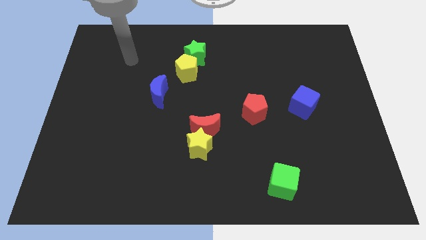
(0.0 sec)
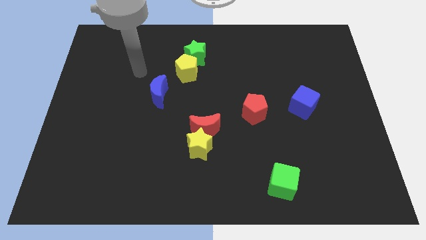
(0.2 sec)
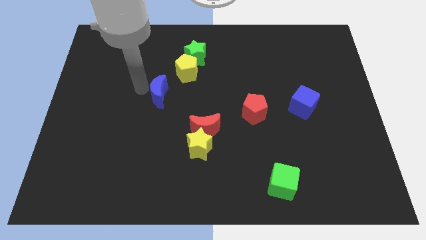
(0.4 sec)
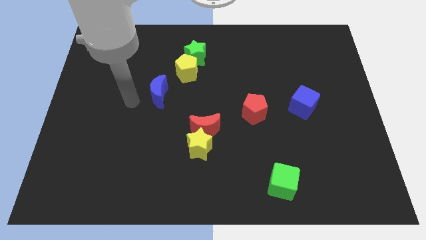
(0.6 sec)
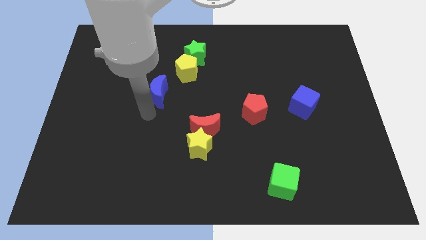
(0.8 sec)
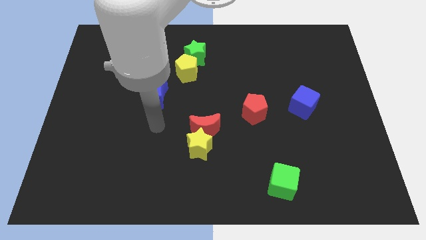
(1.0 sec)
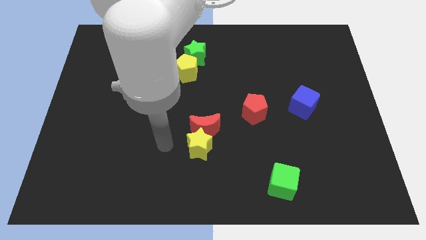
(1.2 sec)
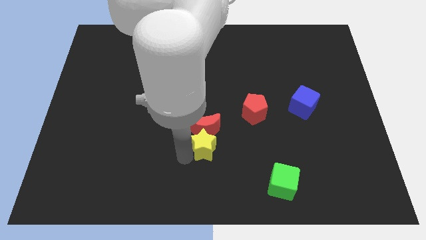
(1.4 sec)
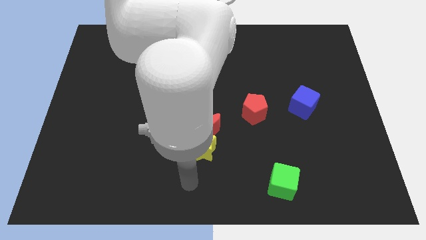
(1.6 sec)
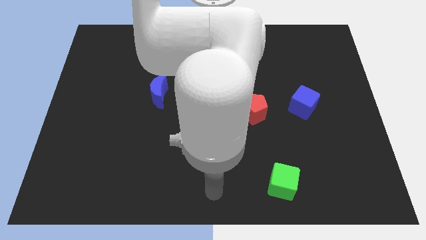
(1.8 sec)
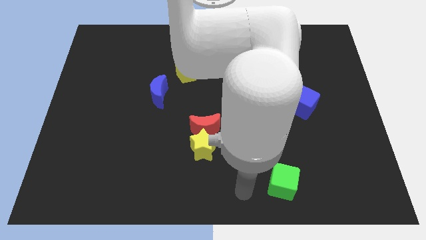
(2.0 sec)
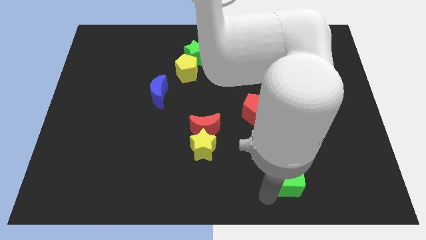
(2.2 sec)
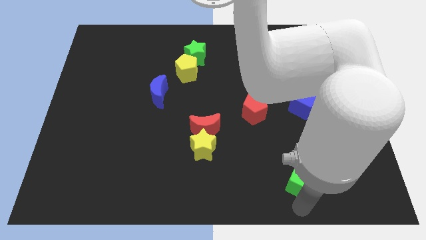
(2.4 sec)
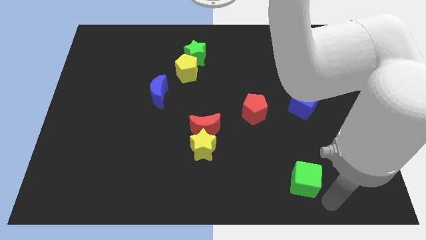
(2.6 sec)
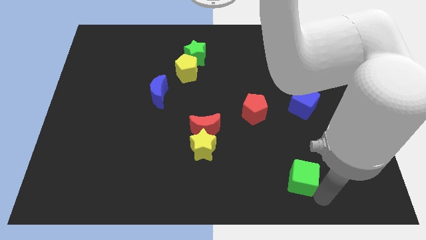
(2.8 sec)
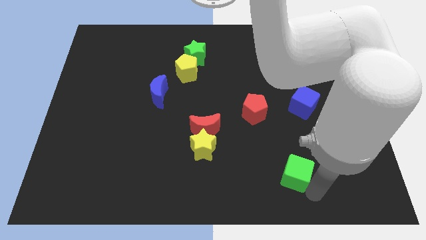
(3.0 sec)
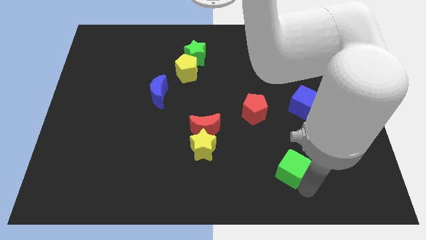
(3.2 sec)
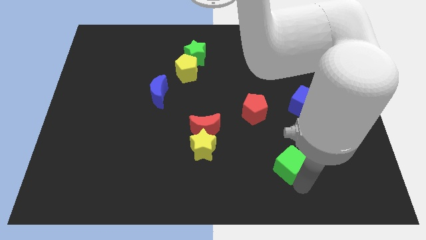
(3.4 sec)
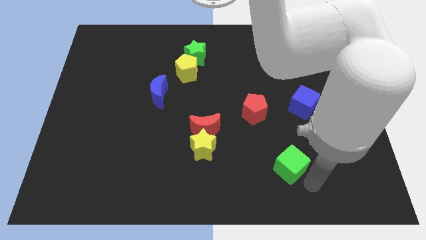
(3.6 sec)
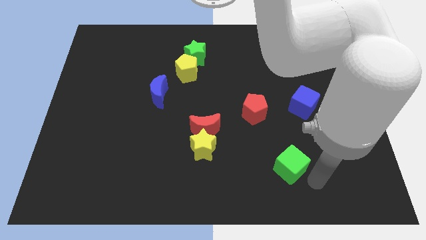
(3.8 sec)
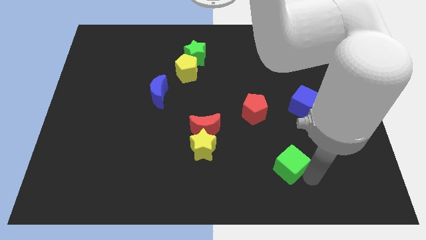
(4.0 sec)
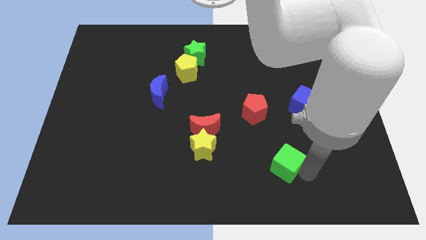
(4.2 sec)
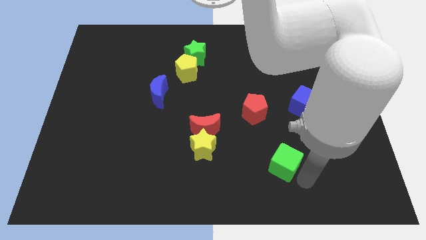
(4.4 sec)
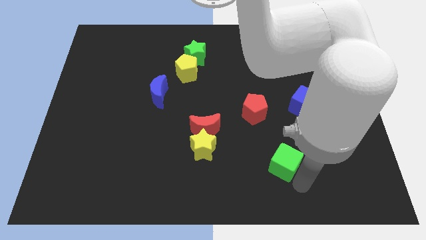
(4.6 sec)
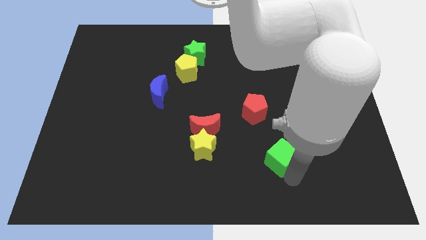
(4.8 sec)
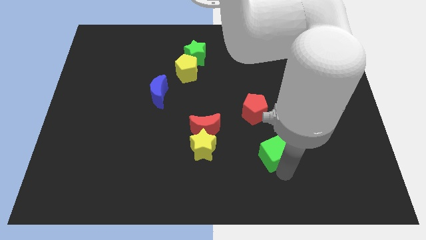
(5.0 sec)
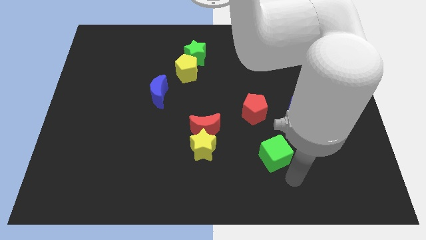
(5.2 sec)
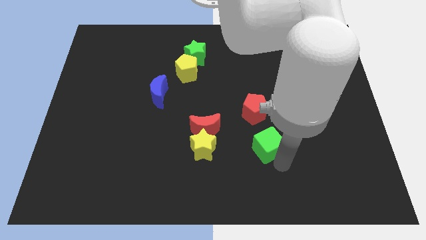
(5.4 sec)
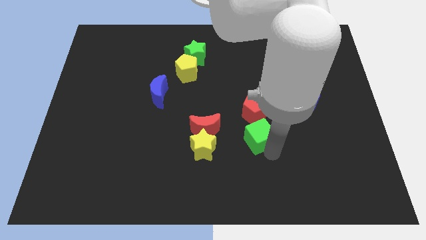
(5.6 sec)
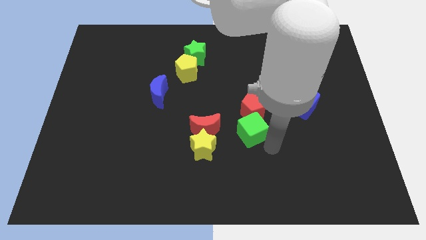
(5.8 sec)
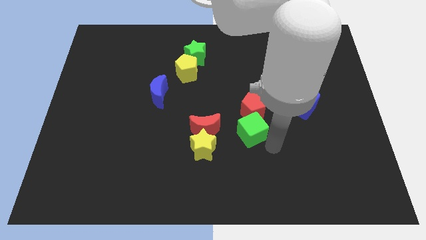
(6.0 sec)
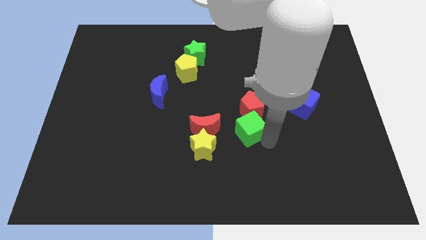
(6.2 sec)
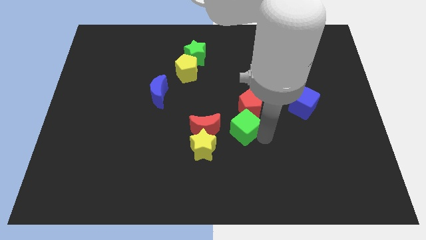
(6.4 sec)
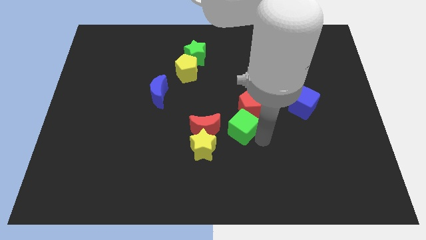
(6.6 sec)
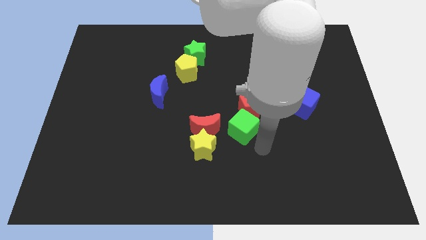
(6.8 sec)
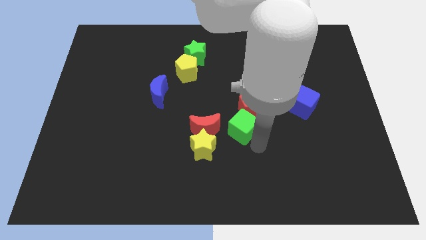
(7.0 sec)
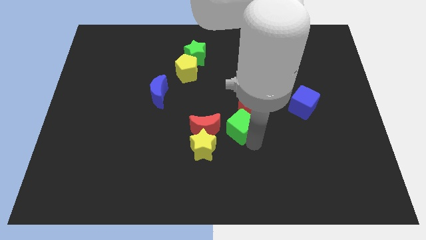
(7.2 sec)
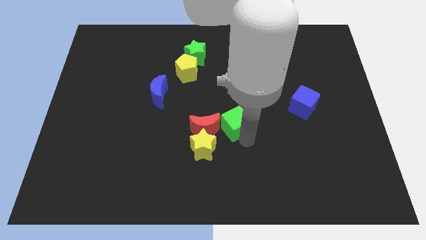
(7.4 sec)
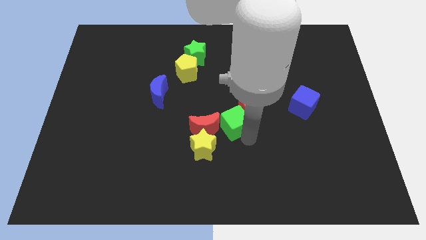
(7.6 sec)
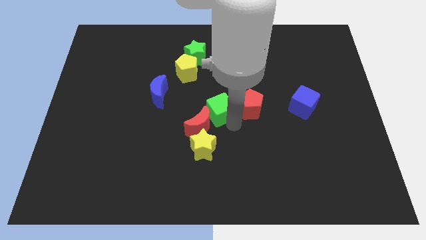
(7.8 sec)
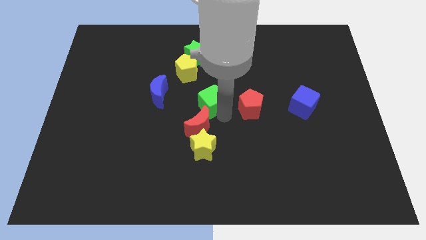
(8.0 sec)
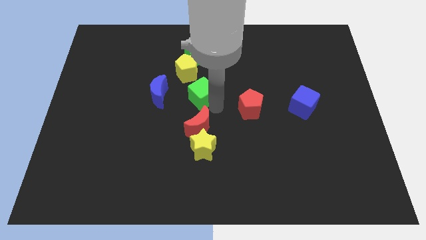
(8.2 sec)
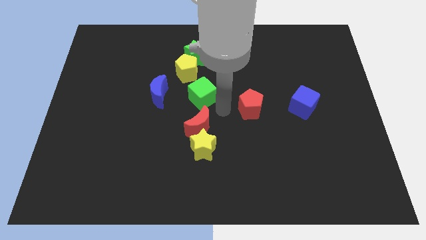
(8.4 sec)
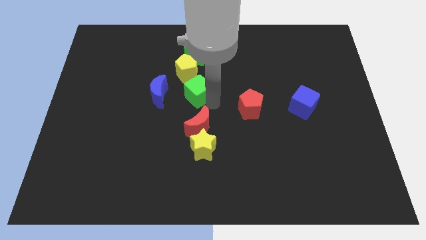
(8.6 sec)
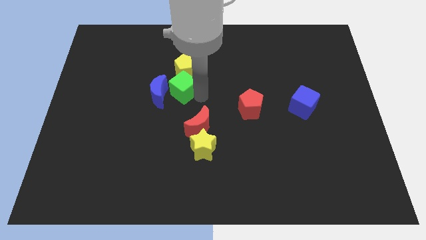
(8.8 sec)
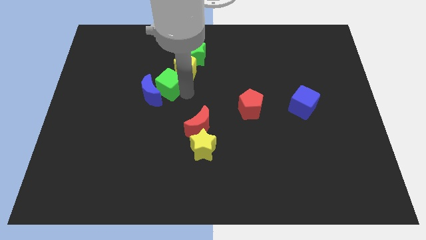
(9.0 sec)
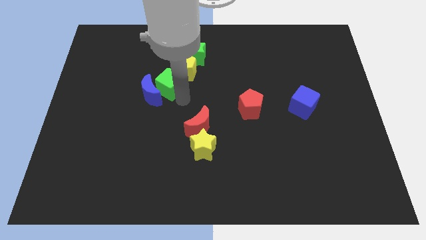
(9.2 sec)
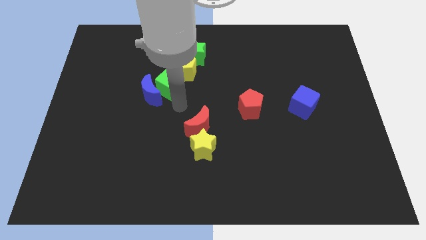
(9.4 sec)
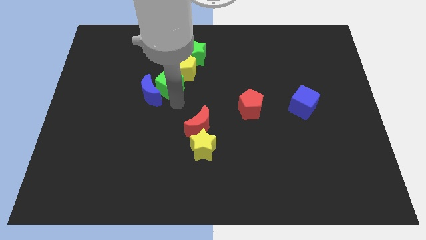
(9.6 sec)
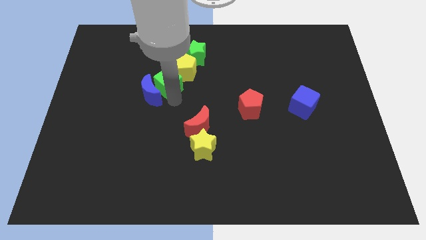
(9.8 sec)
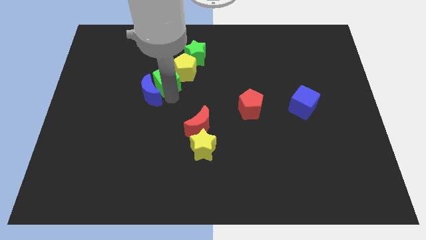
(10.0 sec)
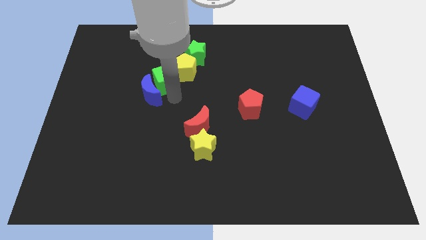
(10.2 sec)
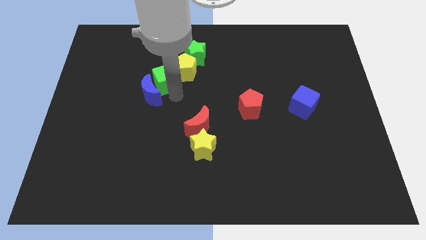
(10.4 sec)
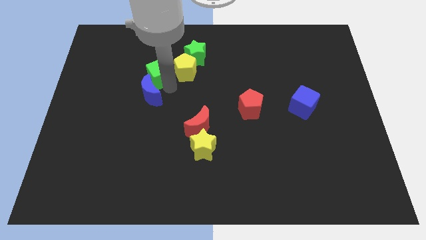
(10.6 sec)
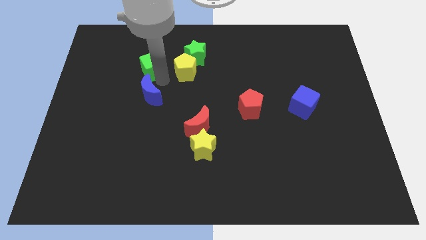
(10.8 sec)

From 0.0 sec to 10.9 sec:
move the green cube to the left side of the green star

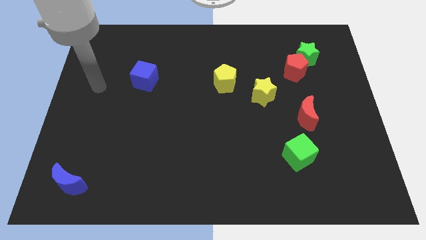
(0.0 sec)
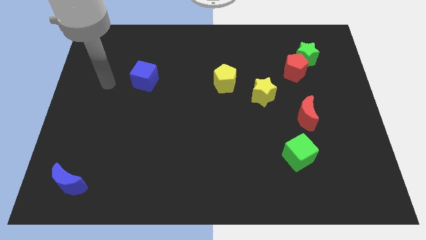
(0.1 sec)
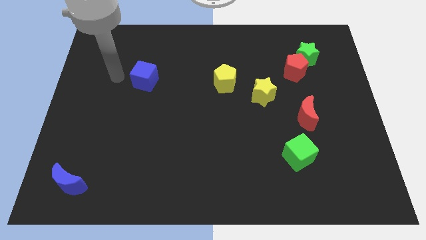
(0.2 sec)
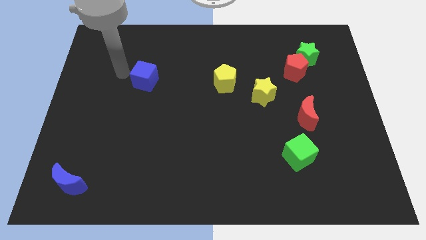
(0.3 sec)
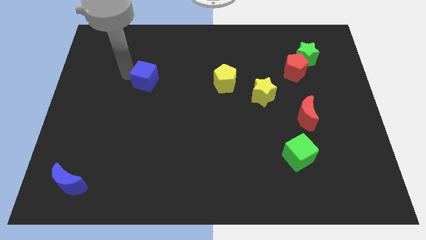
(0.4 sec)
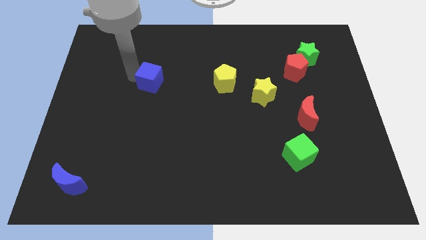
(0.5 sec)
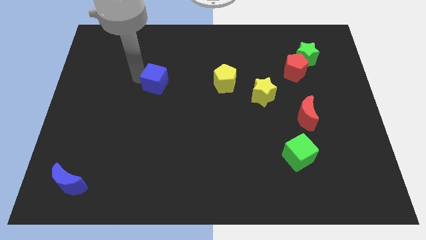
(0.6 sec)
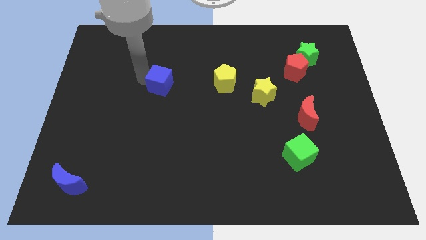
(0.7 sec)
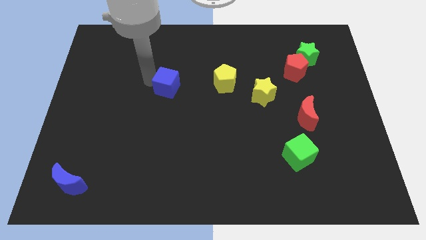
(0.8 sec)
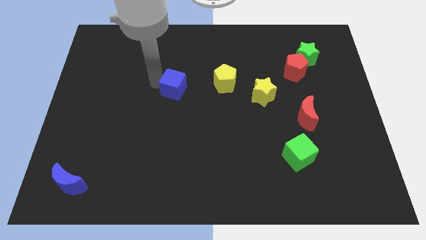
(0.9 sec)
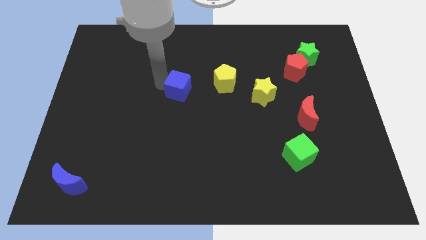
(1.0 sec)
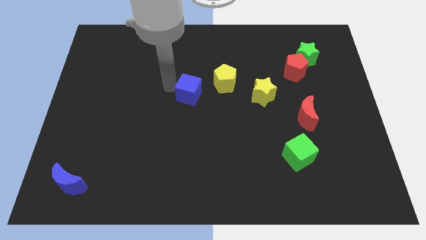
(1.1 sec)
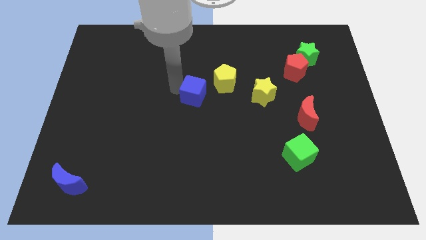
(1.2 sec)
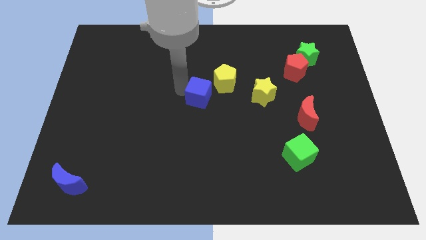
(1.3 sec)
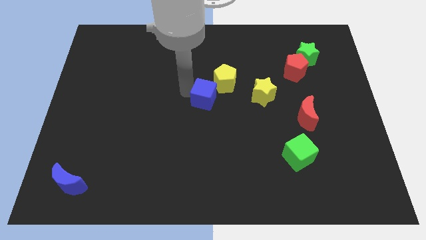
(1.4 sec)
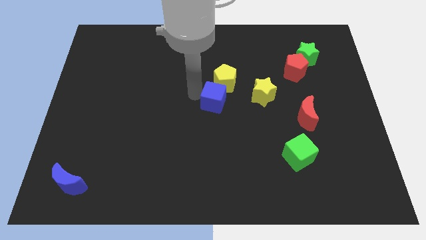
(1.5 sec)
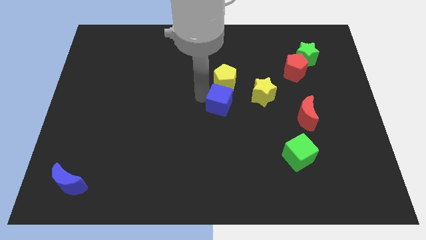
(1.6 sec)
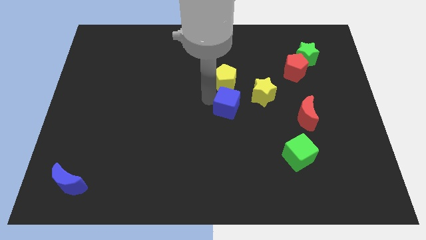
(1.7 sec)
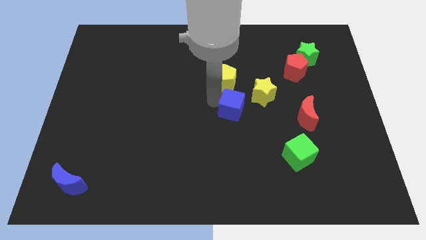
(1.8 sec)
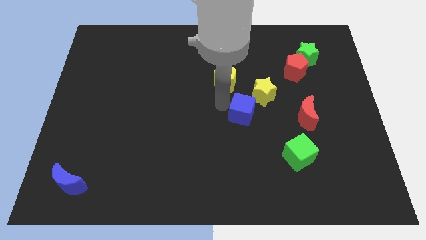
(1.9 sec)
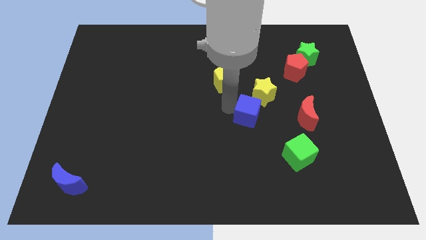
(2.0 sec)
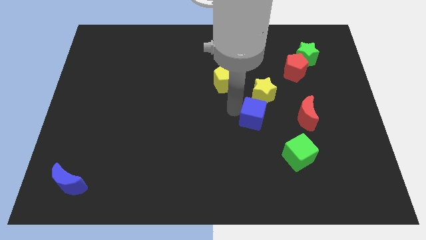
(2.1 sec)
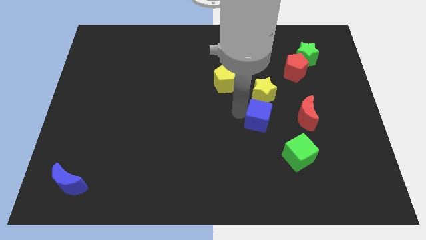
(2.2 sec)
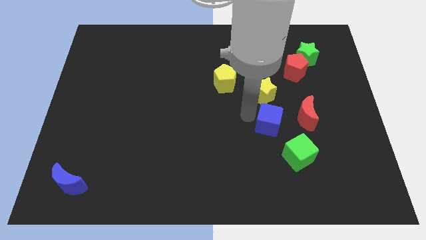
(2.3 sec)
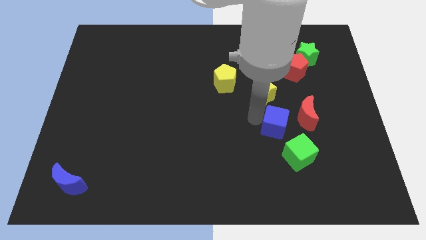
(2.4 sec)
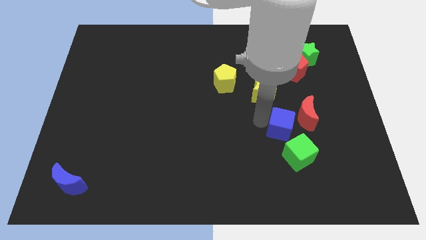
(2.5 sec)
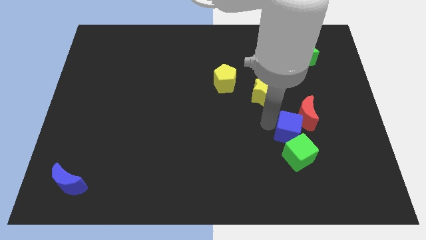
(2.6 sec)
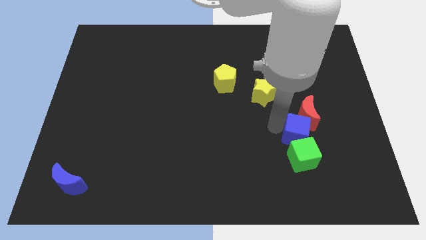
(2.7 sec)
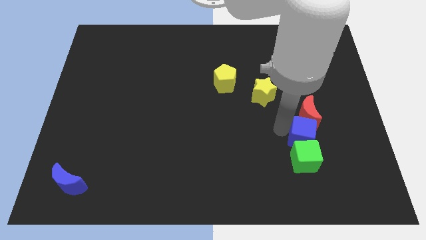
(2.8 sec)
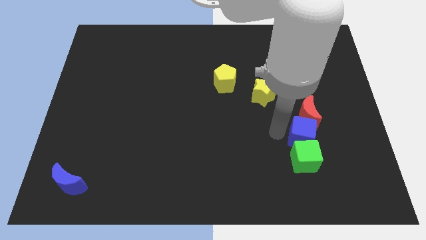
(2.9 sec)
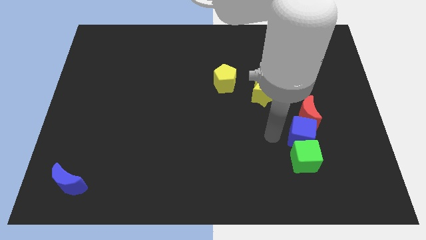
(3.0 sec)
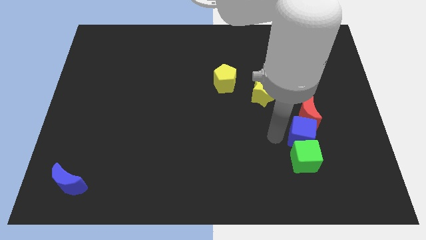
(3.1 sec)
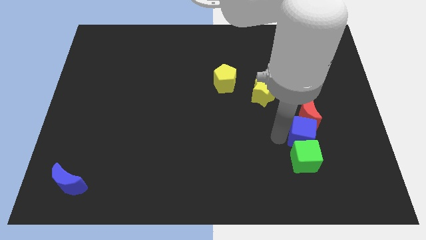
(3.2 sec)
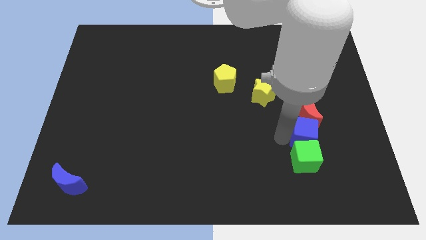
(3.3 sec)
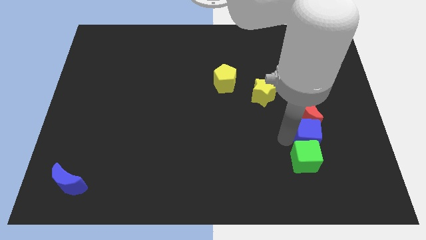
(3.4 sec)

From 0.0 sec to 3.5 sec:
push the blue cube to the bottom right of the red moon
